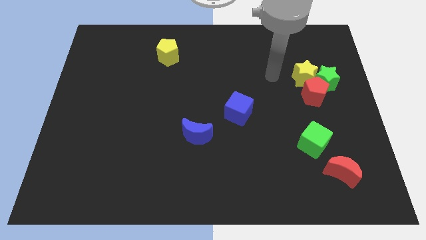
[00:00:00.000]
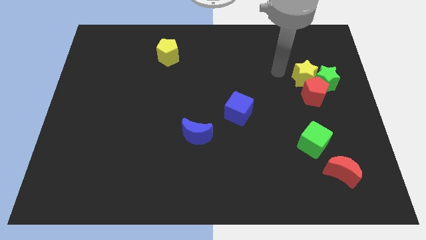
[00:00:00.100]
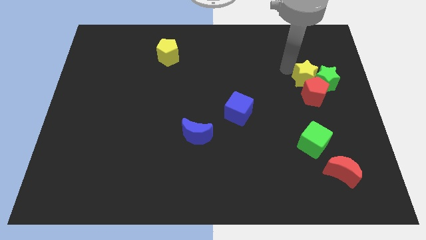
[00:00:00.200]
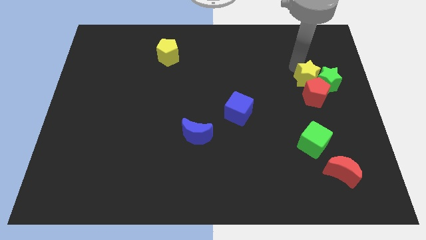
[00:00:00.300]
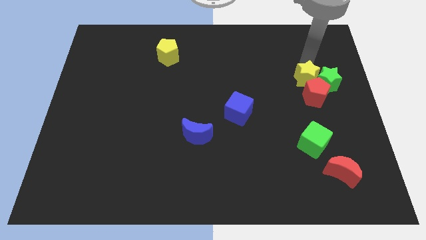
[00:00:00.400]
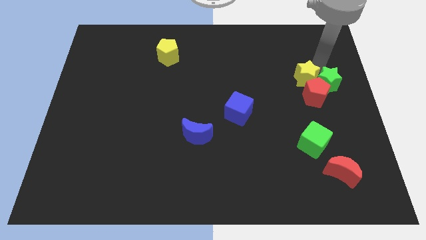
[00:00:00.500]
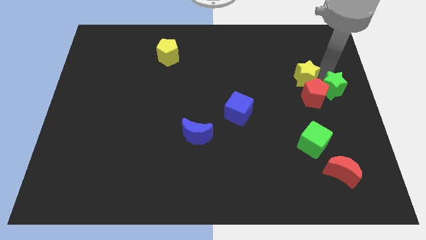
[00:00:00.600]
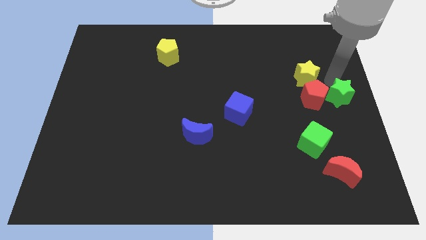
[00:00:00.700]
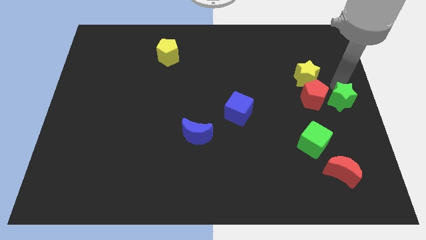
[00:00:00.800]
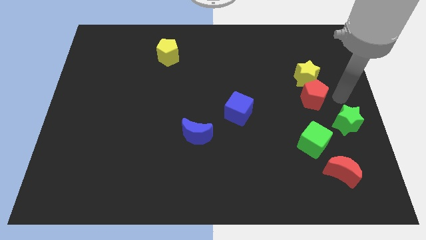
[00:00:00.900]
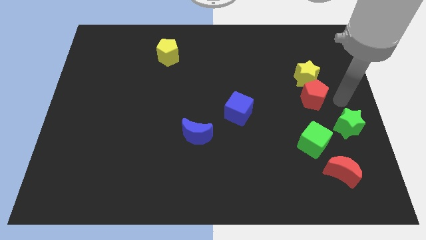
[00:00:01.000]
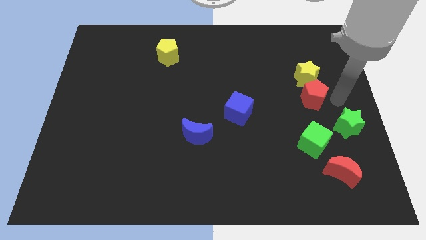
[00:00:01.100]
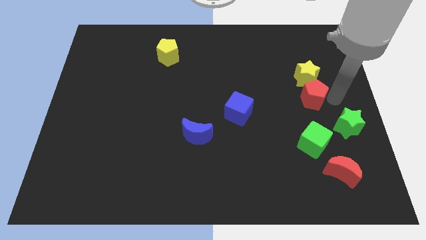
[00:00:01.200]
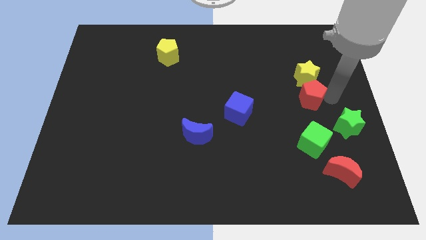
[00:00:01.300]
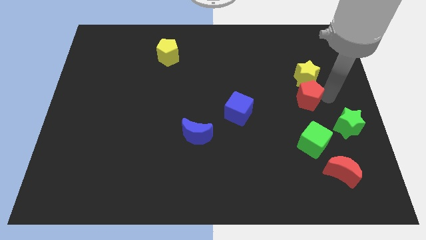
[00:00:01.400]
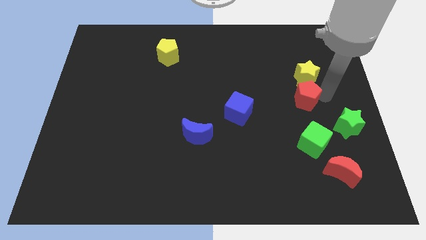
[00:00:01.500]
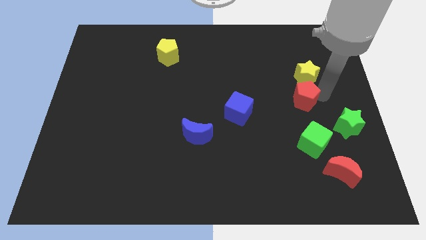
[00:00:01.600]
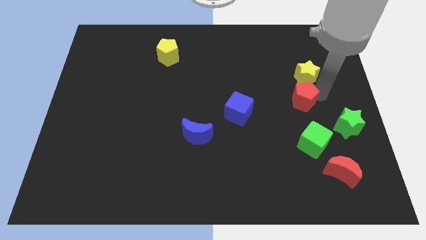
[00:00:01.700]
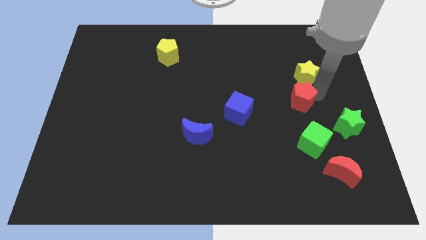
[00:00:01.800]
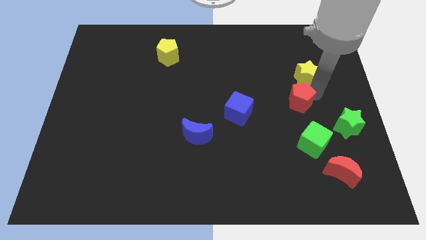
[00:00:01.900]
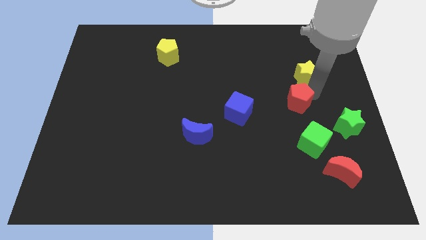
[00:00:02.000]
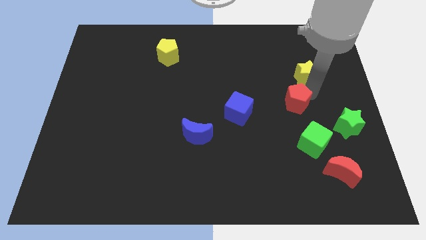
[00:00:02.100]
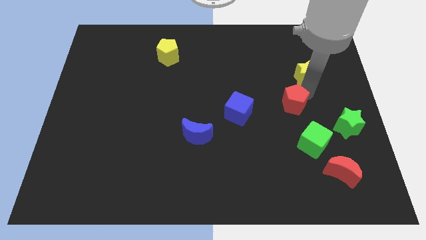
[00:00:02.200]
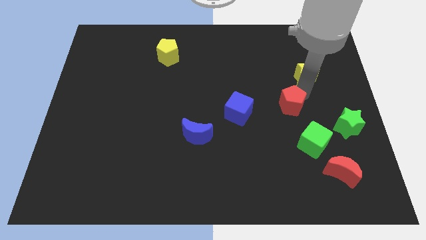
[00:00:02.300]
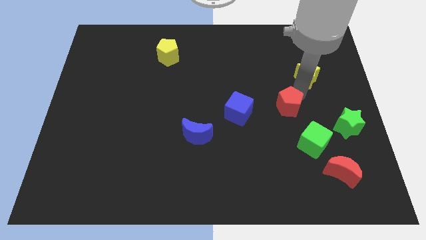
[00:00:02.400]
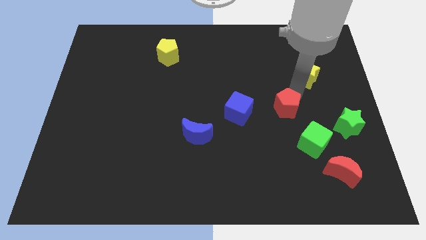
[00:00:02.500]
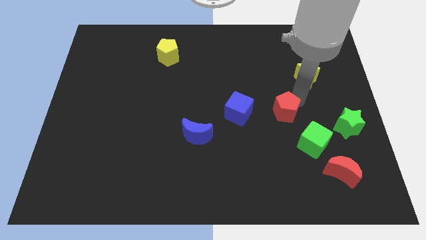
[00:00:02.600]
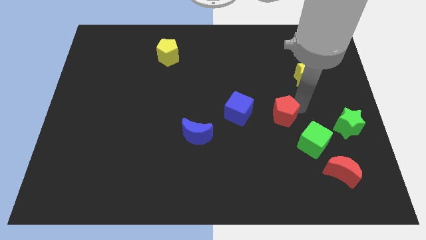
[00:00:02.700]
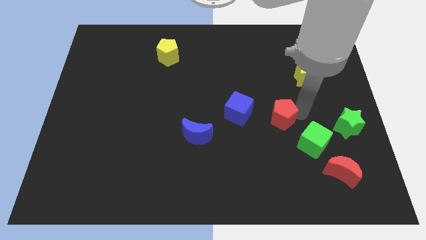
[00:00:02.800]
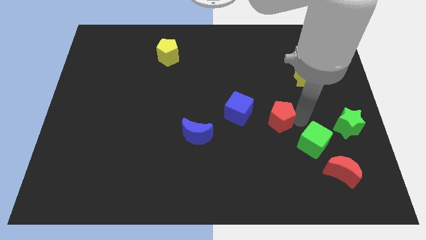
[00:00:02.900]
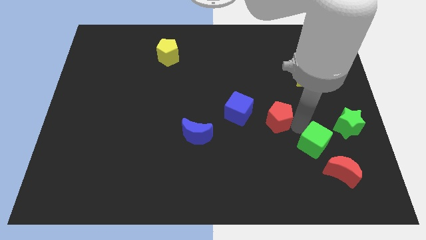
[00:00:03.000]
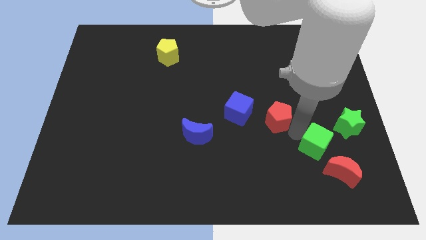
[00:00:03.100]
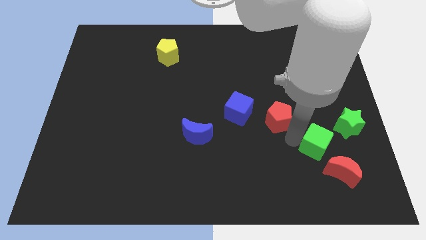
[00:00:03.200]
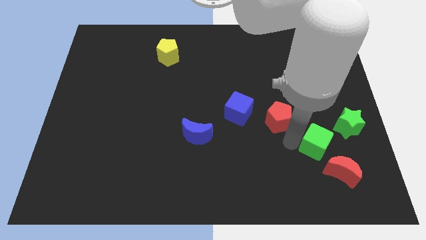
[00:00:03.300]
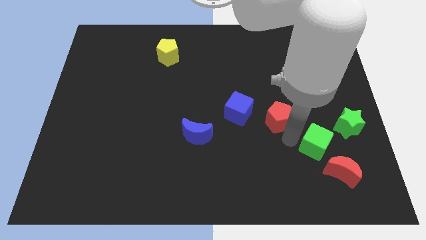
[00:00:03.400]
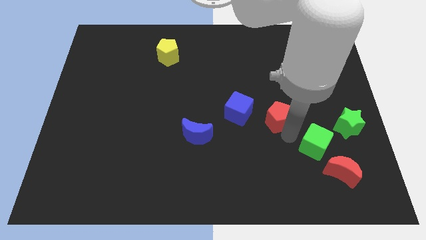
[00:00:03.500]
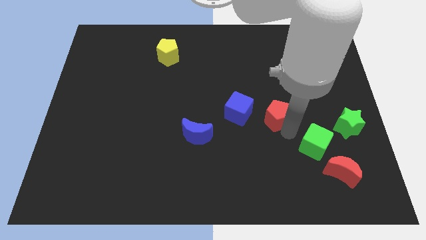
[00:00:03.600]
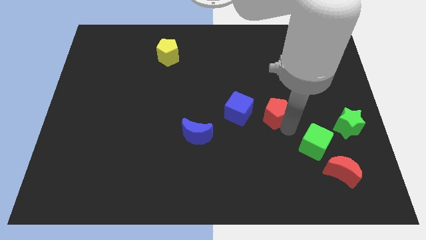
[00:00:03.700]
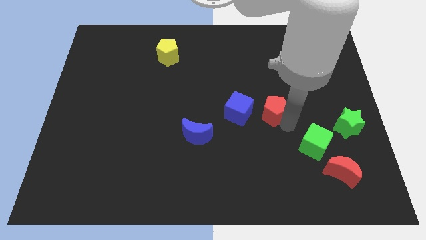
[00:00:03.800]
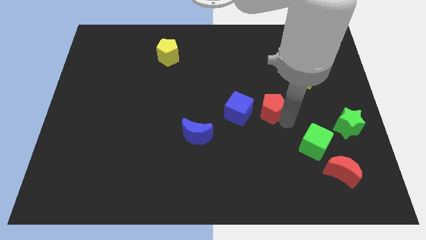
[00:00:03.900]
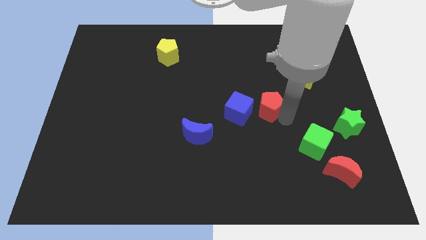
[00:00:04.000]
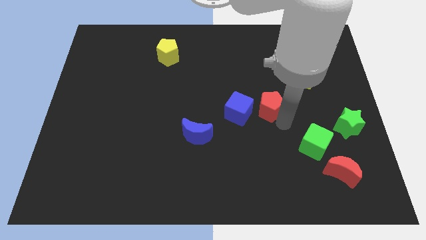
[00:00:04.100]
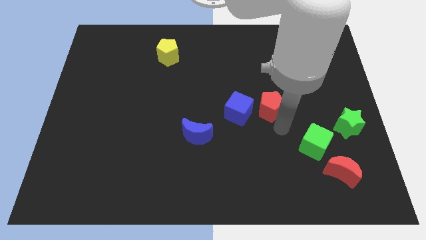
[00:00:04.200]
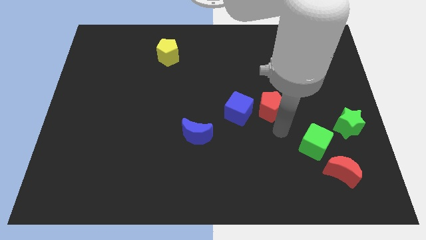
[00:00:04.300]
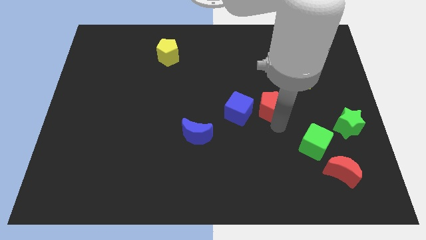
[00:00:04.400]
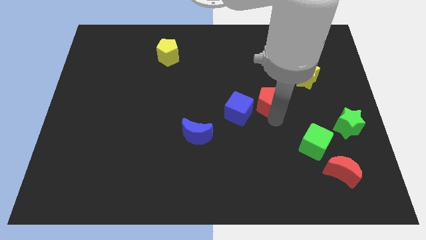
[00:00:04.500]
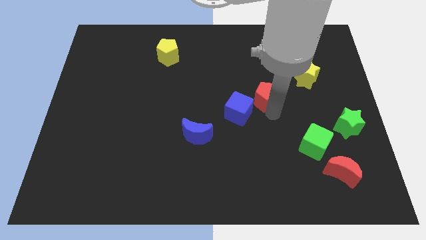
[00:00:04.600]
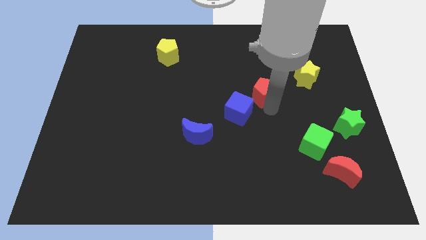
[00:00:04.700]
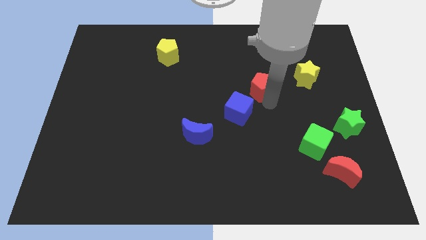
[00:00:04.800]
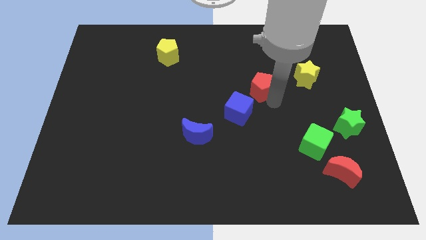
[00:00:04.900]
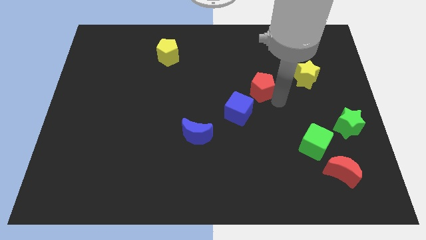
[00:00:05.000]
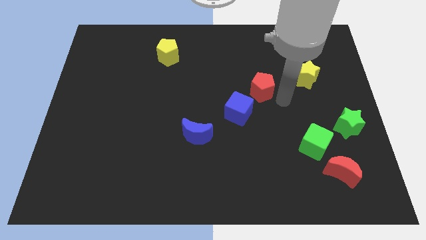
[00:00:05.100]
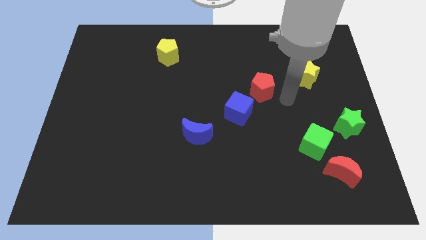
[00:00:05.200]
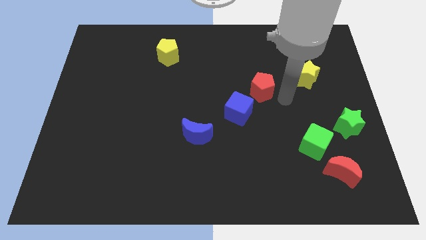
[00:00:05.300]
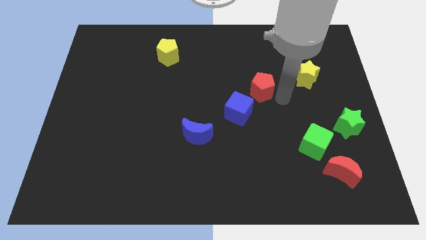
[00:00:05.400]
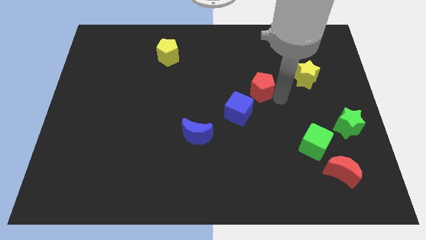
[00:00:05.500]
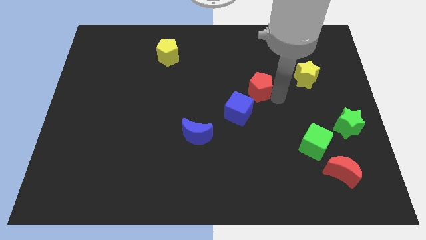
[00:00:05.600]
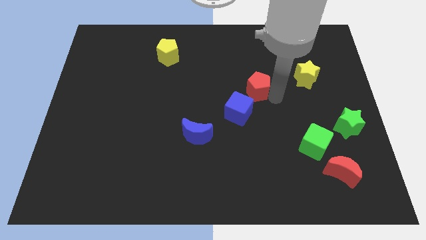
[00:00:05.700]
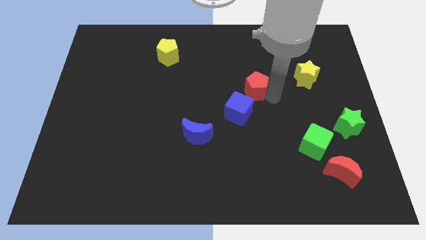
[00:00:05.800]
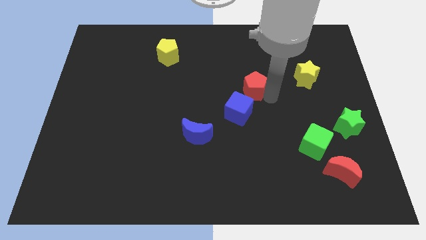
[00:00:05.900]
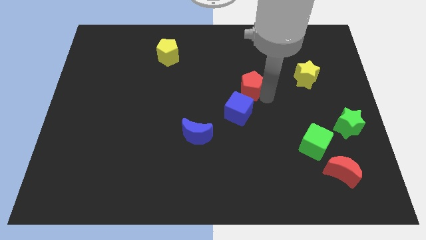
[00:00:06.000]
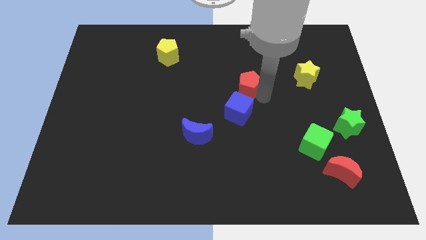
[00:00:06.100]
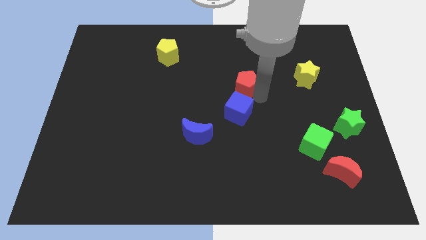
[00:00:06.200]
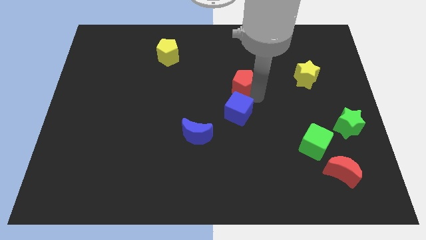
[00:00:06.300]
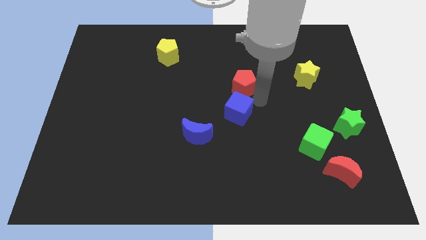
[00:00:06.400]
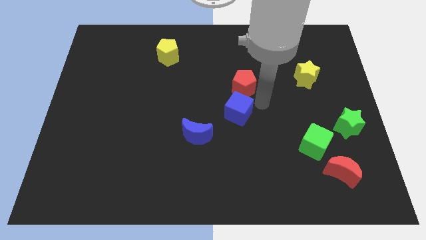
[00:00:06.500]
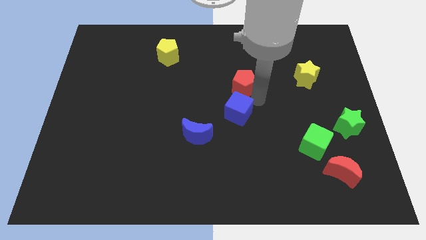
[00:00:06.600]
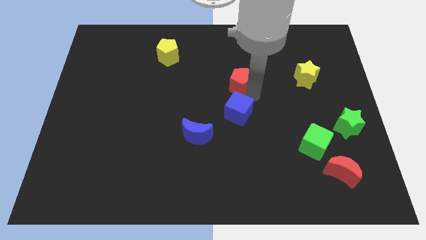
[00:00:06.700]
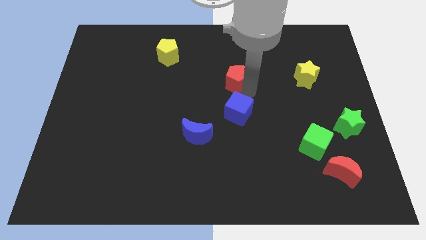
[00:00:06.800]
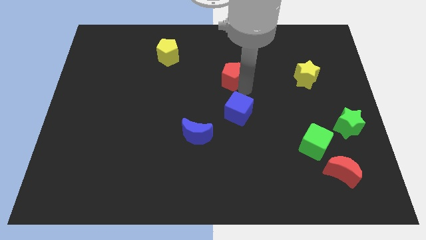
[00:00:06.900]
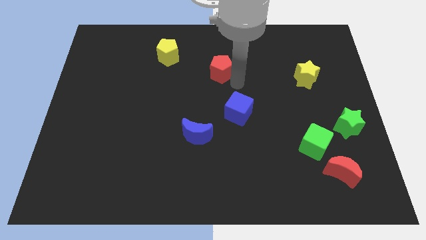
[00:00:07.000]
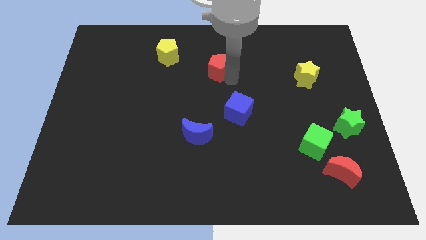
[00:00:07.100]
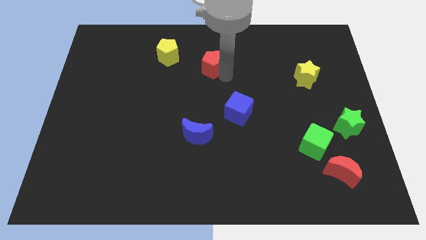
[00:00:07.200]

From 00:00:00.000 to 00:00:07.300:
put the red pentagon to the right of the yellow pentagon

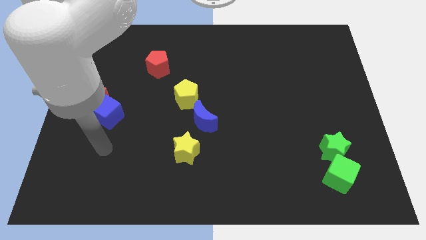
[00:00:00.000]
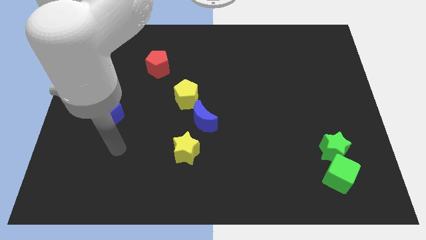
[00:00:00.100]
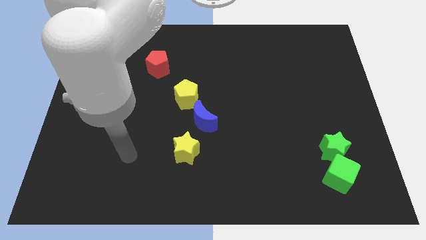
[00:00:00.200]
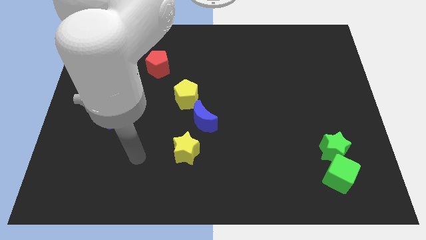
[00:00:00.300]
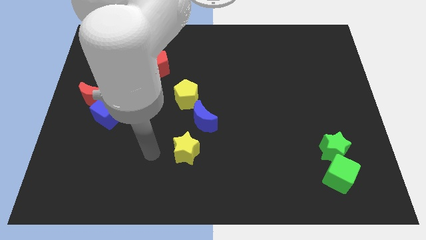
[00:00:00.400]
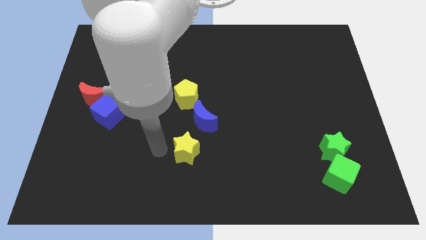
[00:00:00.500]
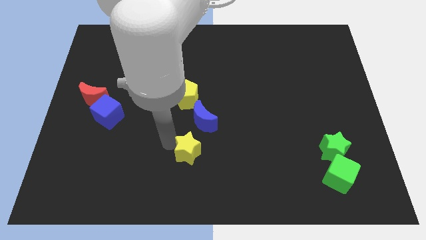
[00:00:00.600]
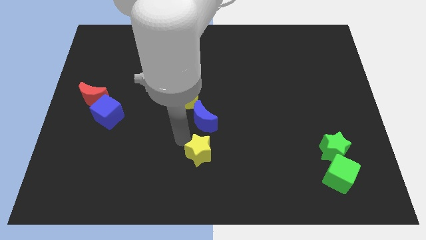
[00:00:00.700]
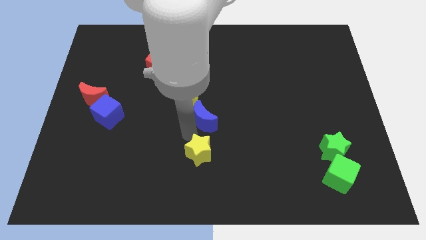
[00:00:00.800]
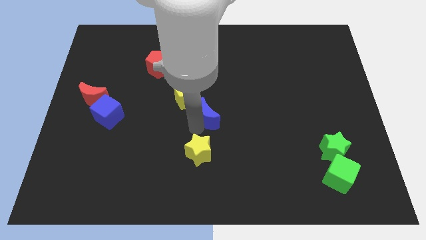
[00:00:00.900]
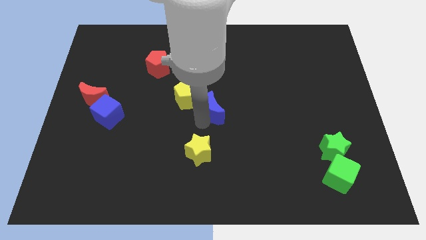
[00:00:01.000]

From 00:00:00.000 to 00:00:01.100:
push the blue moon to the right side of the yellow pentagon
